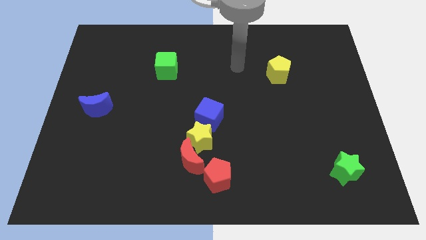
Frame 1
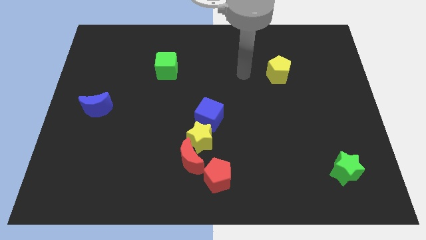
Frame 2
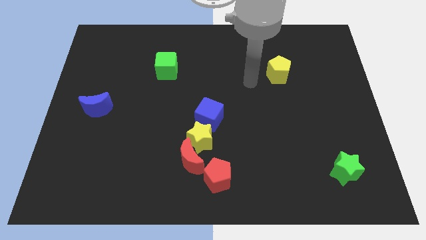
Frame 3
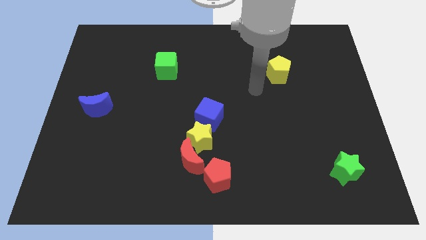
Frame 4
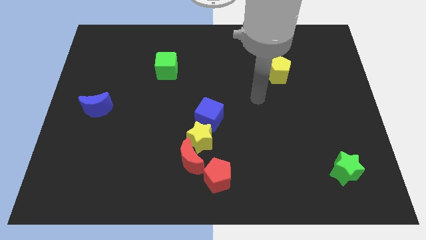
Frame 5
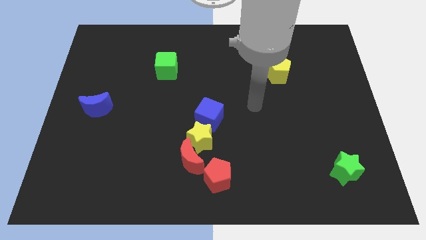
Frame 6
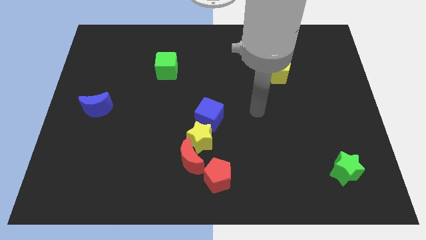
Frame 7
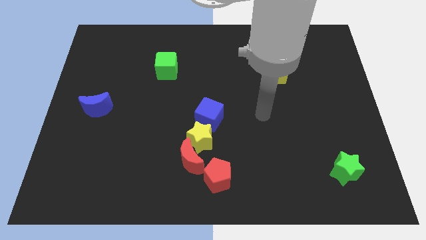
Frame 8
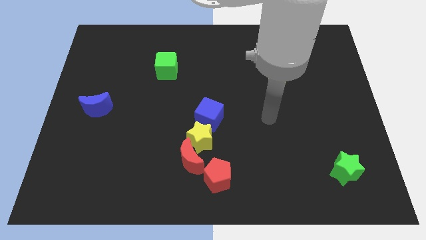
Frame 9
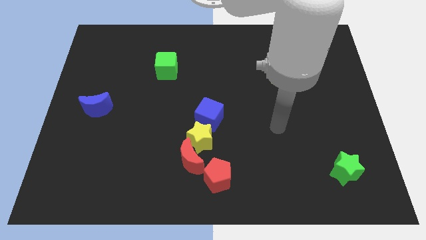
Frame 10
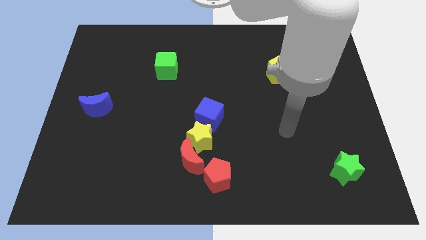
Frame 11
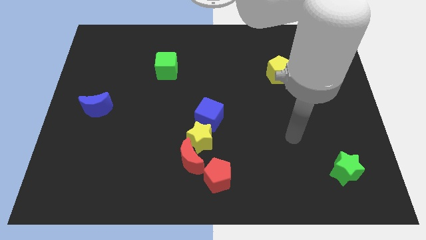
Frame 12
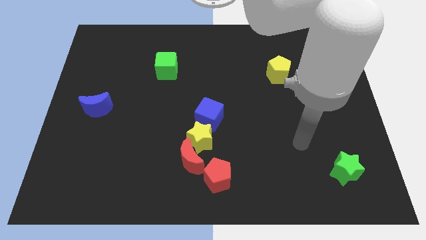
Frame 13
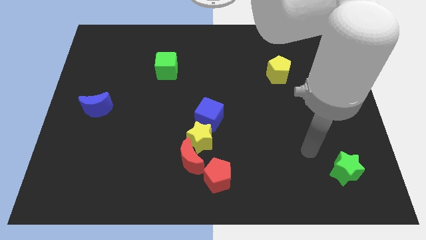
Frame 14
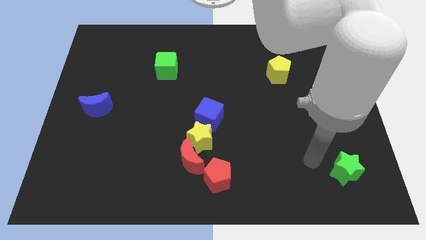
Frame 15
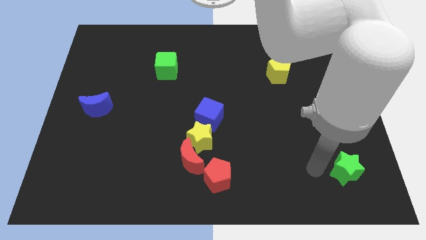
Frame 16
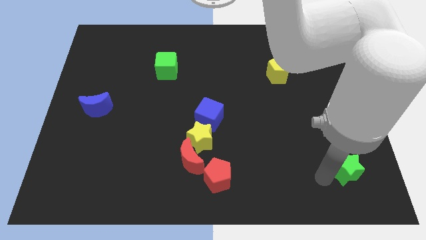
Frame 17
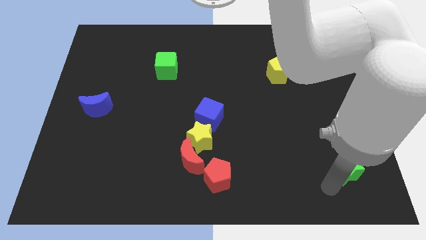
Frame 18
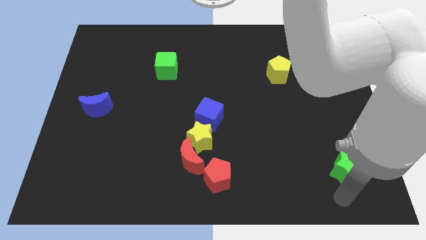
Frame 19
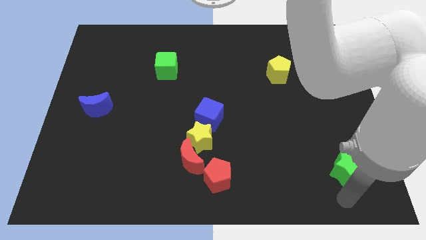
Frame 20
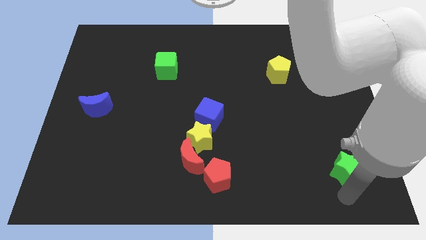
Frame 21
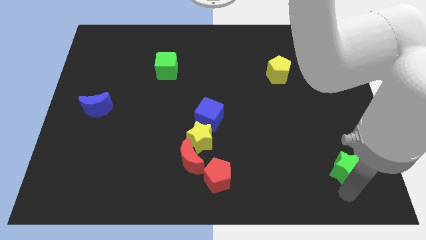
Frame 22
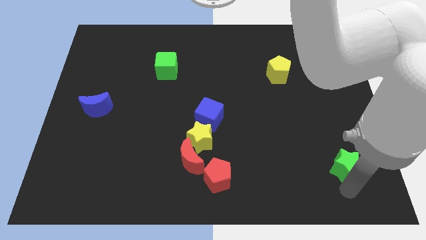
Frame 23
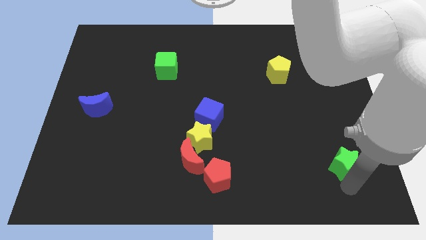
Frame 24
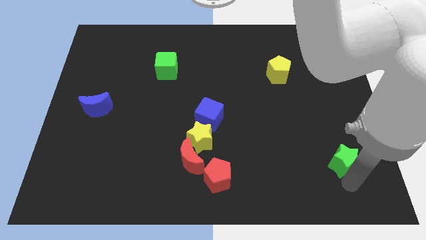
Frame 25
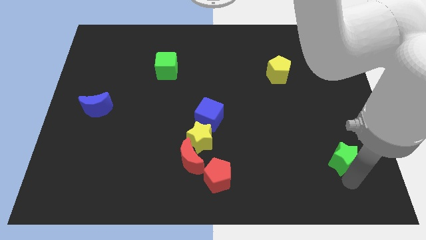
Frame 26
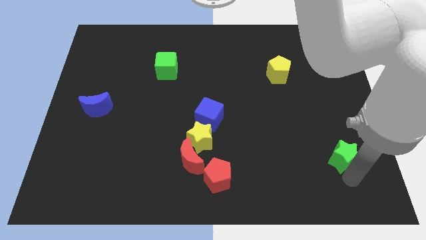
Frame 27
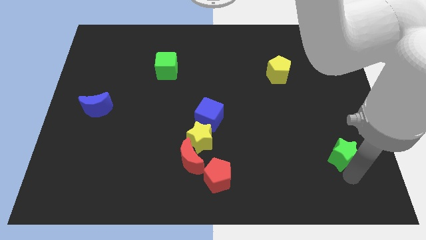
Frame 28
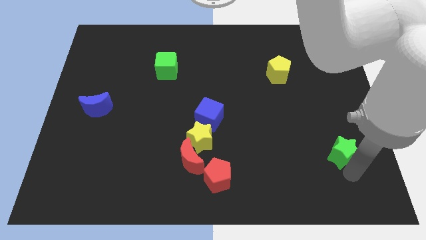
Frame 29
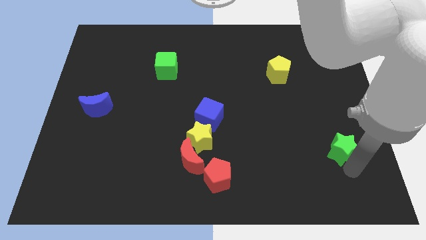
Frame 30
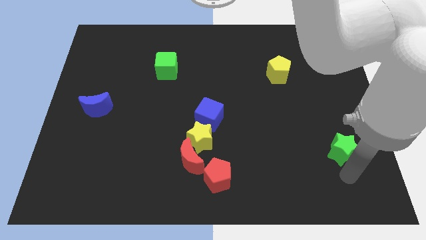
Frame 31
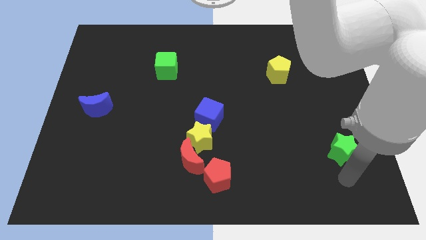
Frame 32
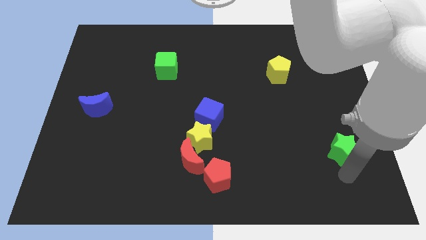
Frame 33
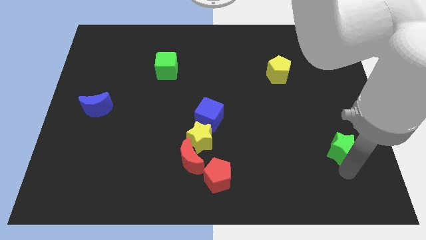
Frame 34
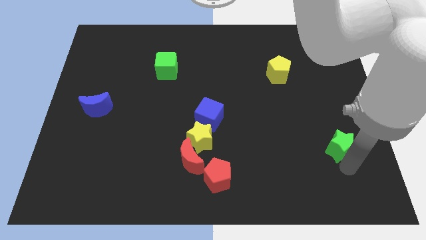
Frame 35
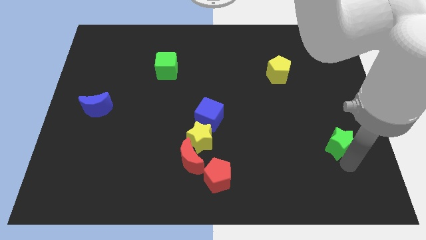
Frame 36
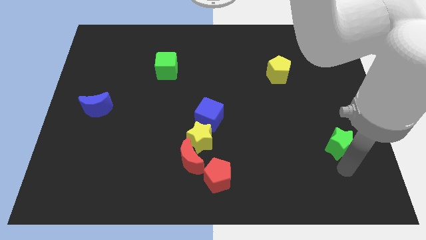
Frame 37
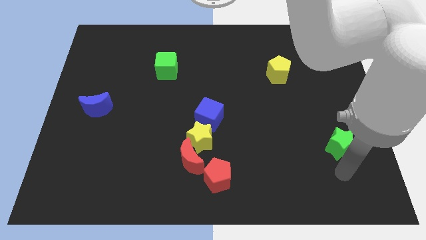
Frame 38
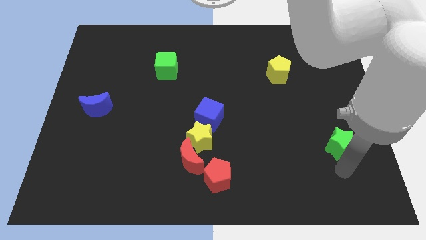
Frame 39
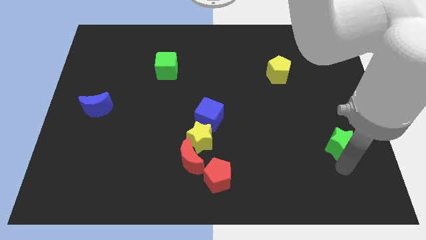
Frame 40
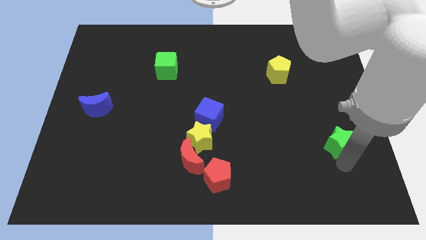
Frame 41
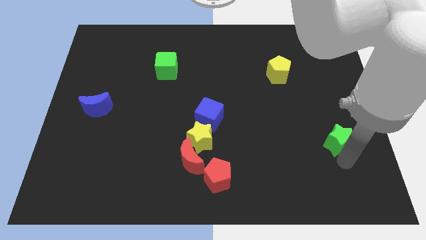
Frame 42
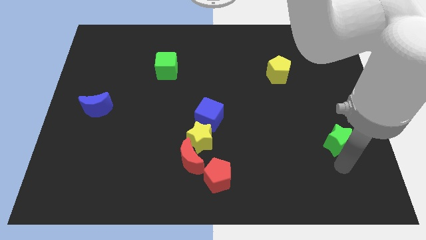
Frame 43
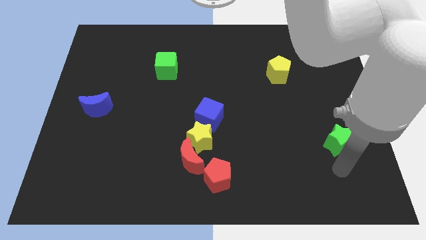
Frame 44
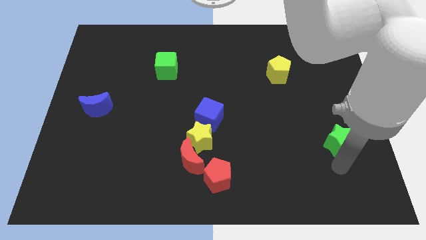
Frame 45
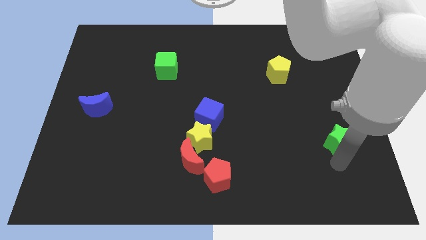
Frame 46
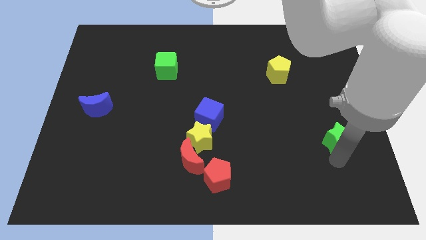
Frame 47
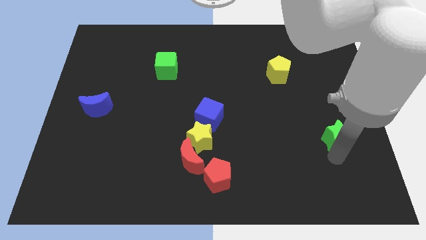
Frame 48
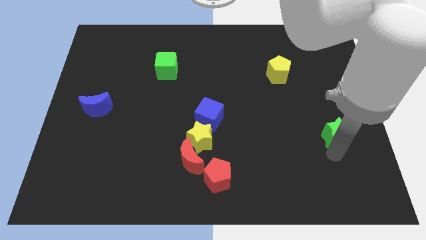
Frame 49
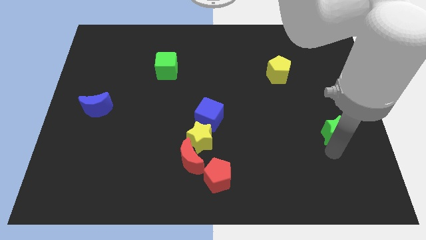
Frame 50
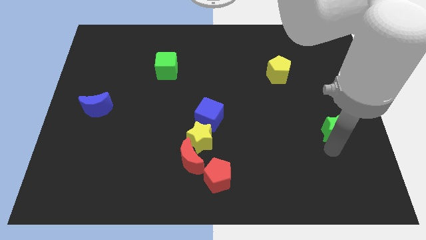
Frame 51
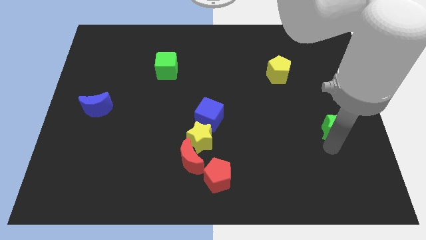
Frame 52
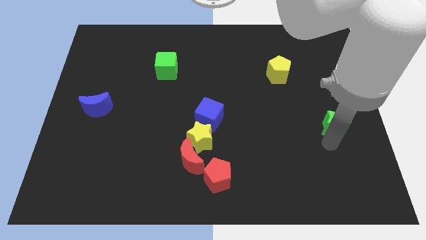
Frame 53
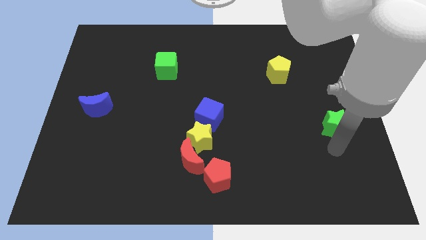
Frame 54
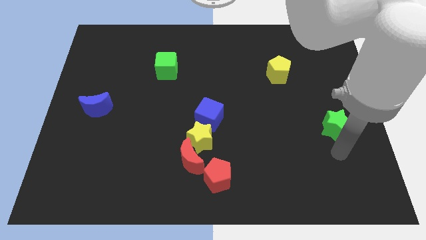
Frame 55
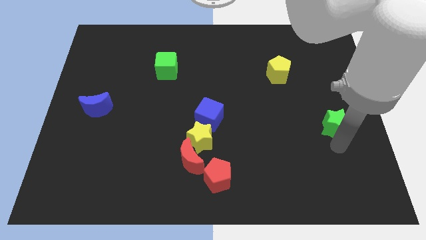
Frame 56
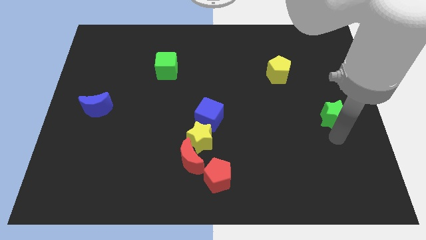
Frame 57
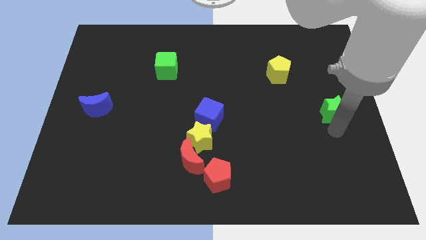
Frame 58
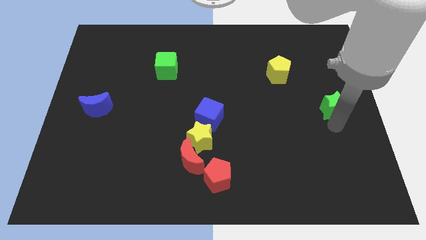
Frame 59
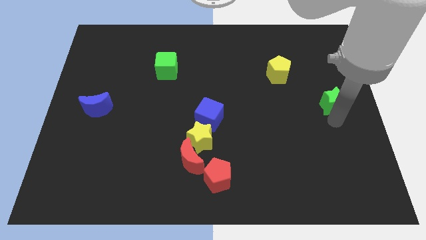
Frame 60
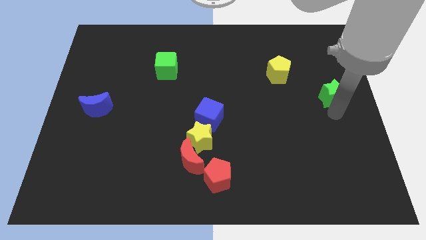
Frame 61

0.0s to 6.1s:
push the green star up

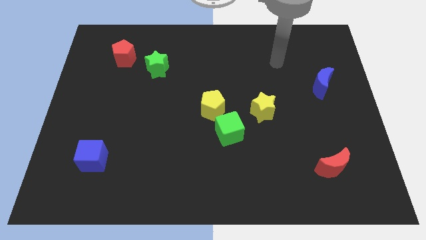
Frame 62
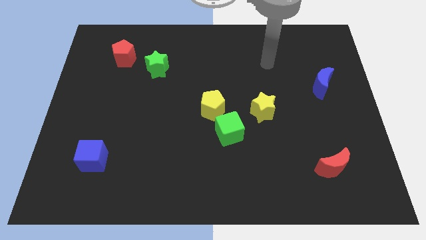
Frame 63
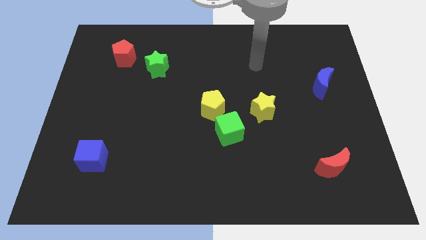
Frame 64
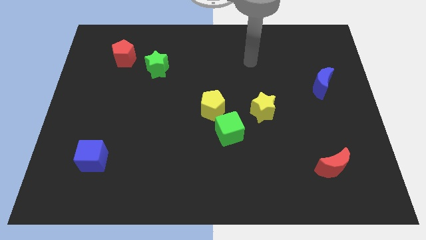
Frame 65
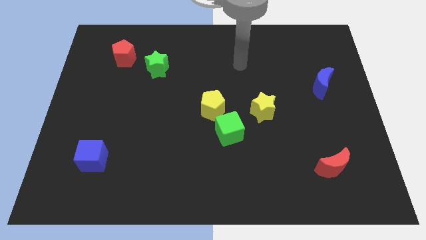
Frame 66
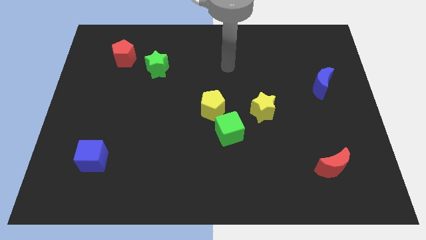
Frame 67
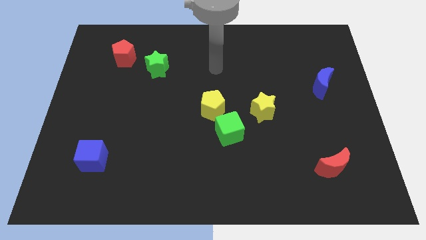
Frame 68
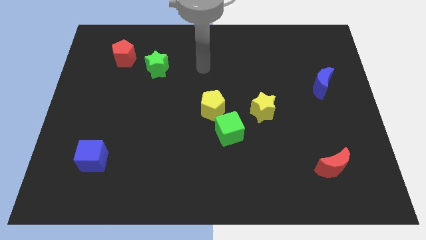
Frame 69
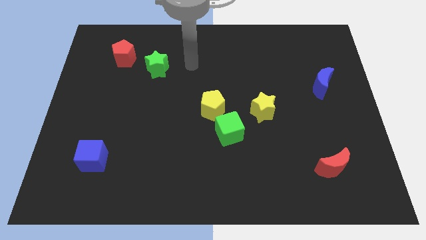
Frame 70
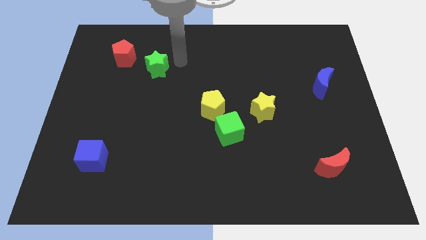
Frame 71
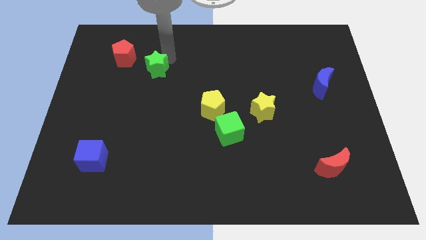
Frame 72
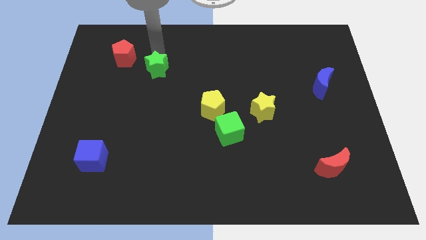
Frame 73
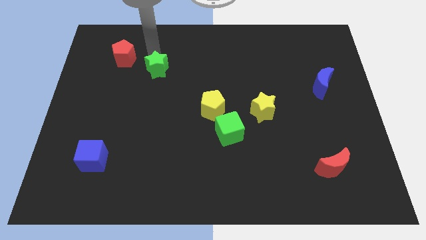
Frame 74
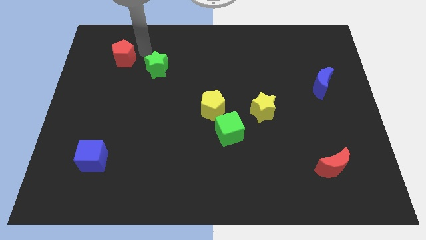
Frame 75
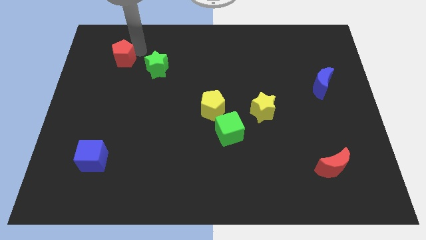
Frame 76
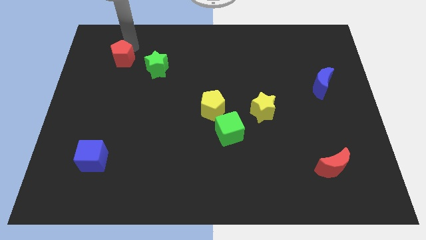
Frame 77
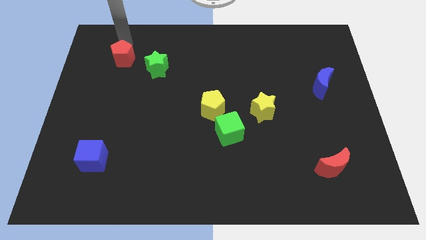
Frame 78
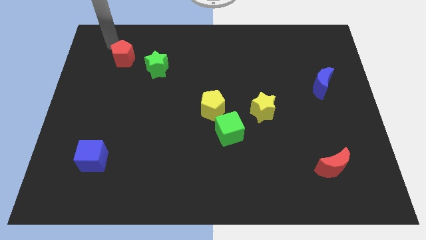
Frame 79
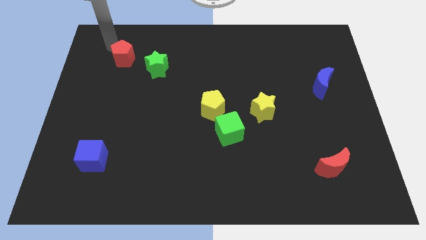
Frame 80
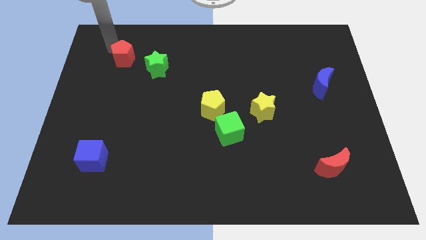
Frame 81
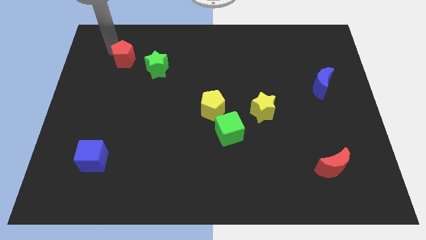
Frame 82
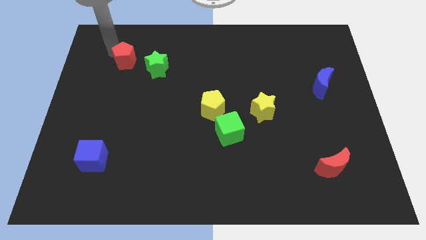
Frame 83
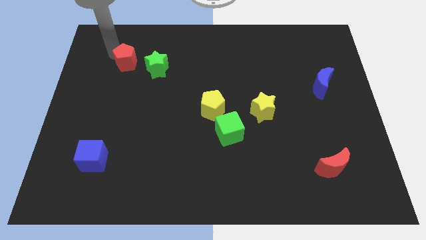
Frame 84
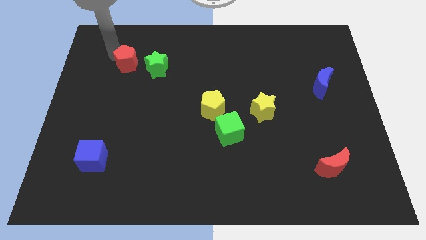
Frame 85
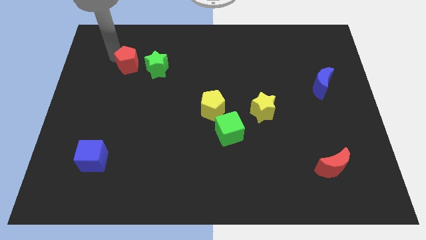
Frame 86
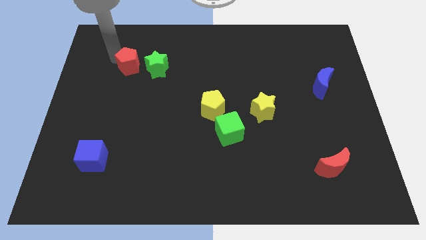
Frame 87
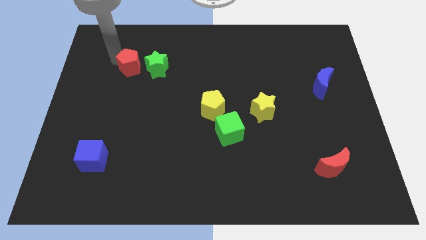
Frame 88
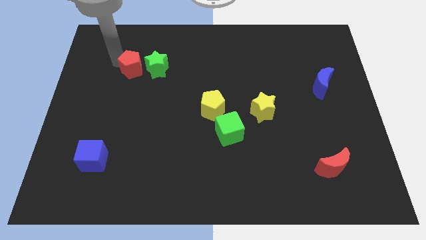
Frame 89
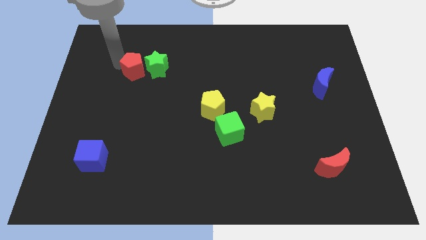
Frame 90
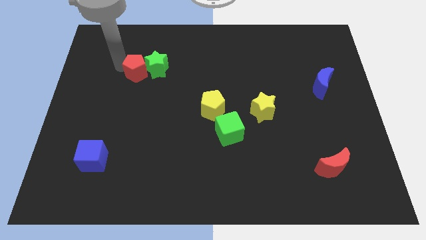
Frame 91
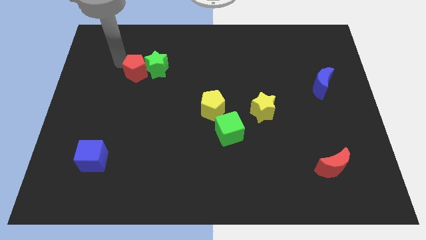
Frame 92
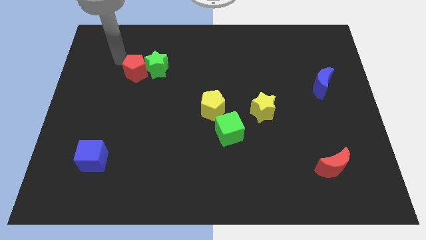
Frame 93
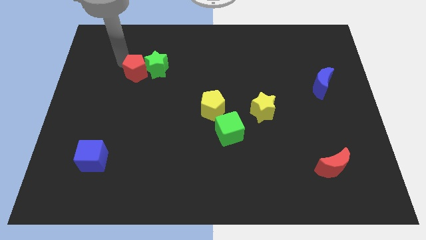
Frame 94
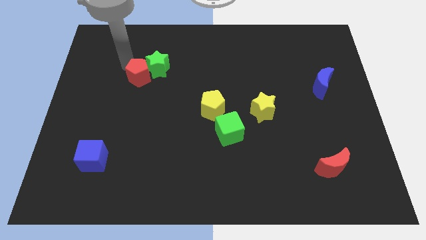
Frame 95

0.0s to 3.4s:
slightly move the red pentagon down and then to the right
